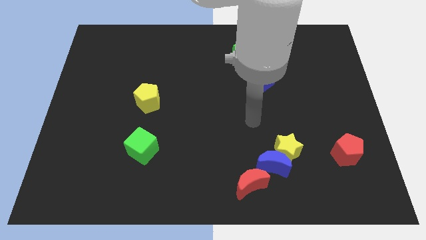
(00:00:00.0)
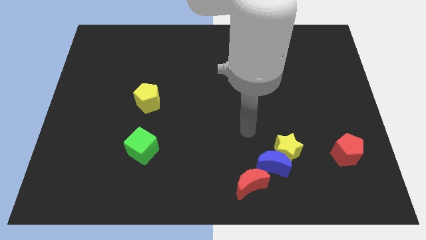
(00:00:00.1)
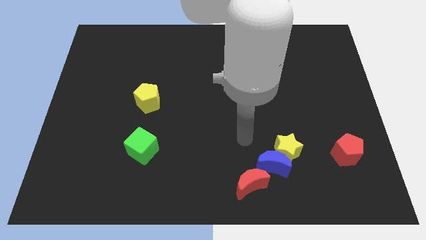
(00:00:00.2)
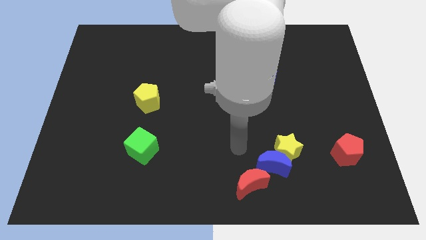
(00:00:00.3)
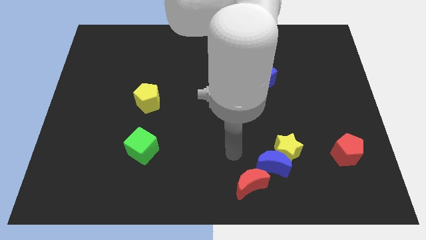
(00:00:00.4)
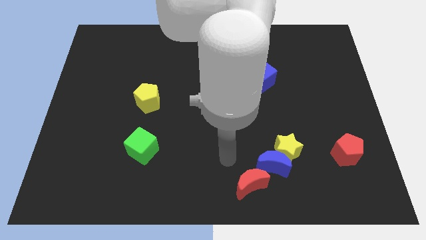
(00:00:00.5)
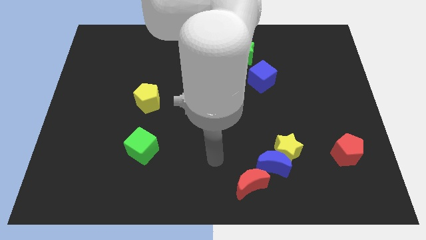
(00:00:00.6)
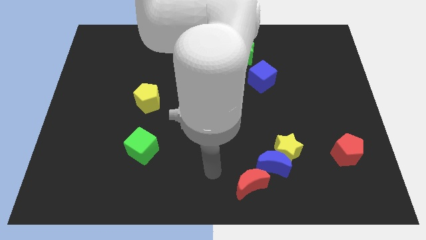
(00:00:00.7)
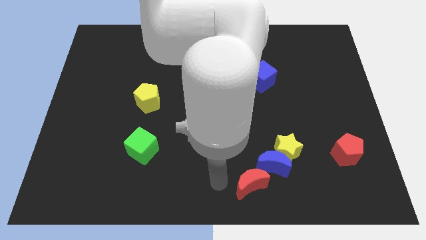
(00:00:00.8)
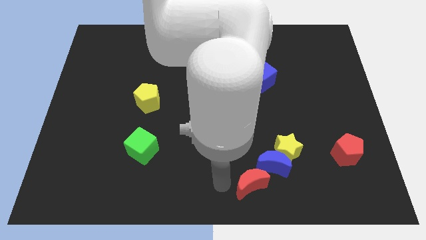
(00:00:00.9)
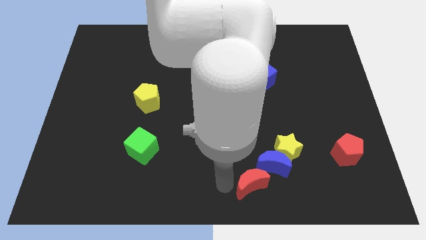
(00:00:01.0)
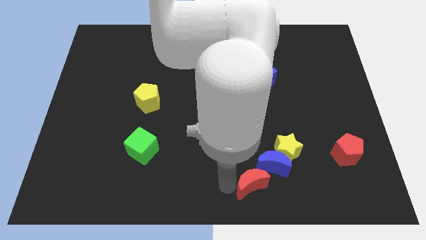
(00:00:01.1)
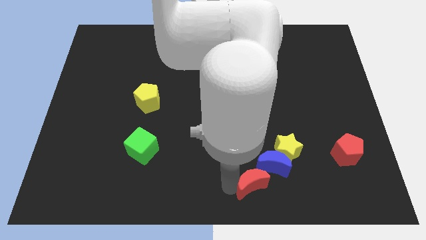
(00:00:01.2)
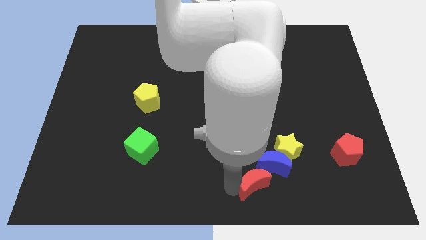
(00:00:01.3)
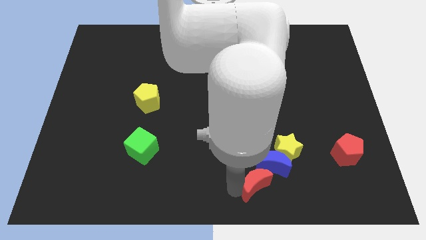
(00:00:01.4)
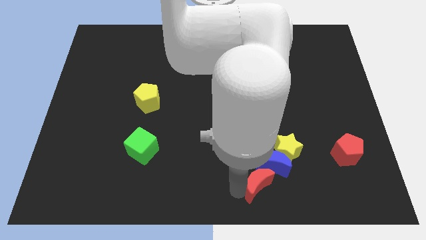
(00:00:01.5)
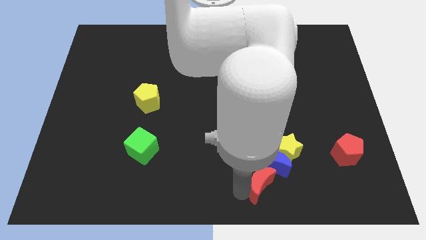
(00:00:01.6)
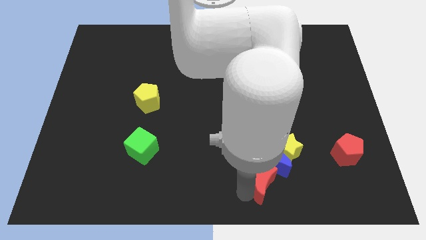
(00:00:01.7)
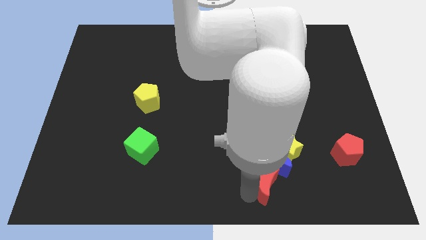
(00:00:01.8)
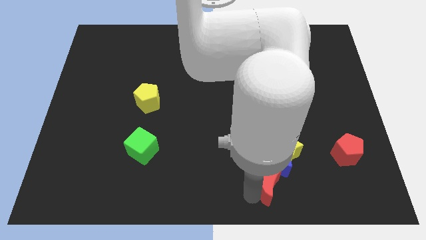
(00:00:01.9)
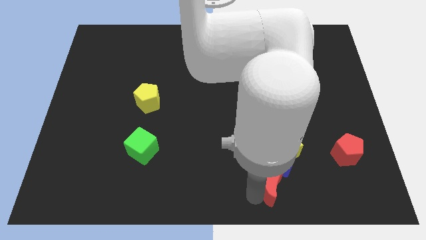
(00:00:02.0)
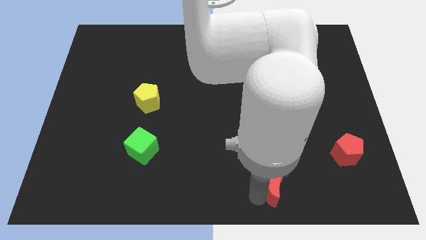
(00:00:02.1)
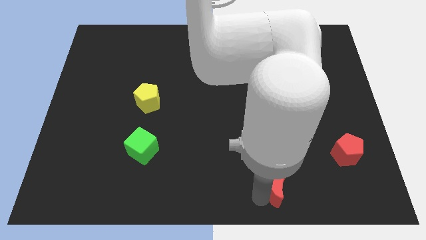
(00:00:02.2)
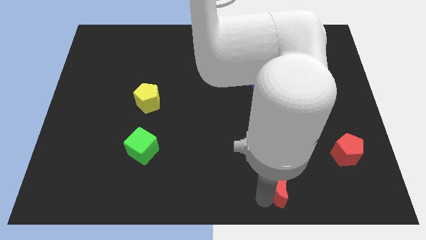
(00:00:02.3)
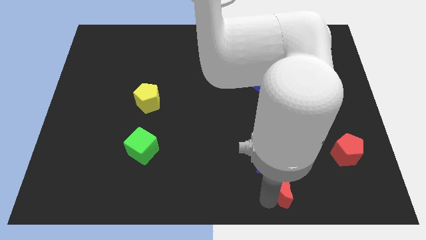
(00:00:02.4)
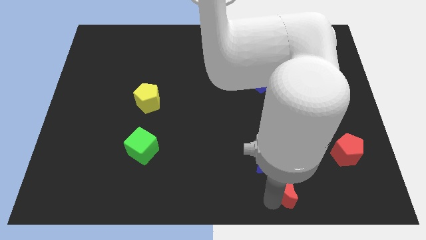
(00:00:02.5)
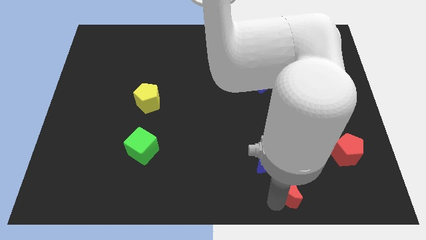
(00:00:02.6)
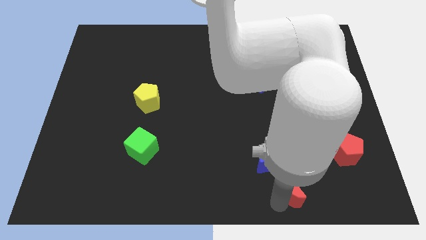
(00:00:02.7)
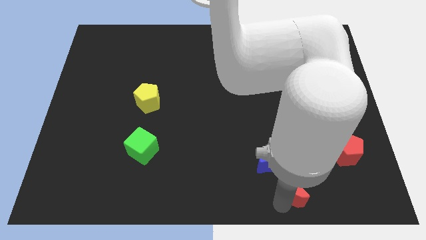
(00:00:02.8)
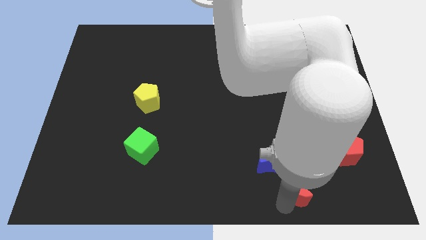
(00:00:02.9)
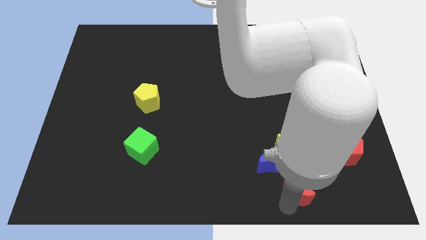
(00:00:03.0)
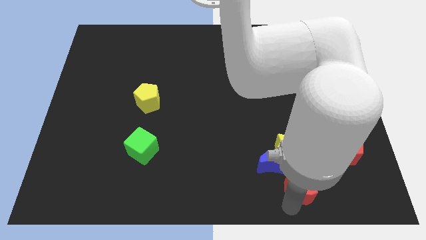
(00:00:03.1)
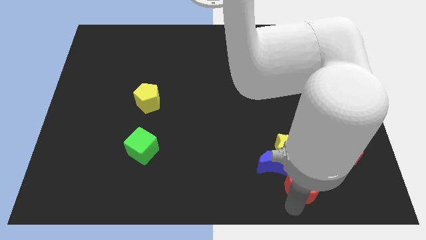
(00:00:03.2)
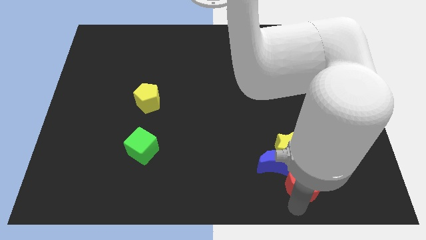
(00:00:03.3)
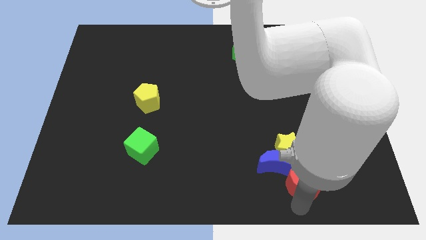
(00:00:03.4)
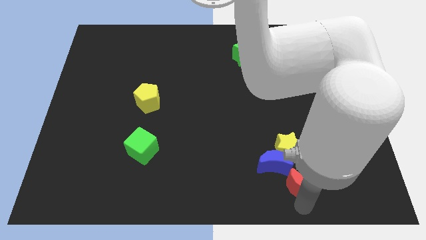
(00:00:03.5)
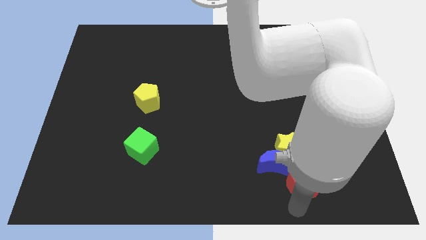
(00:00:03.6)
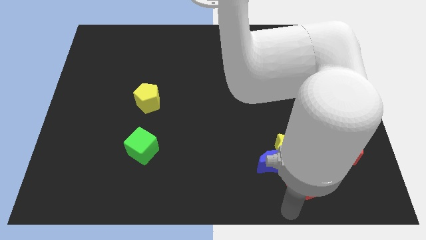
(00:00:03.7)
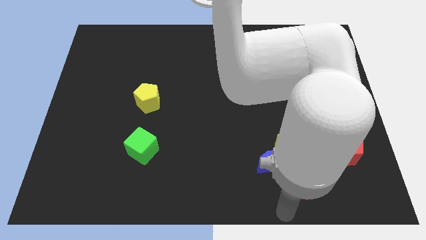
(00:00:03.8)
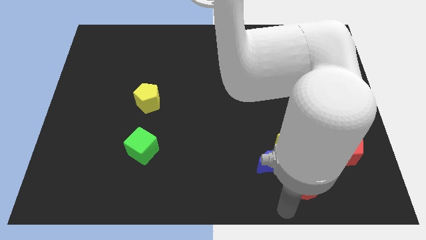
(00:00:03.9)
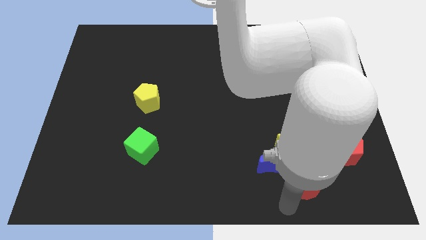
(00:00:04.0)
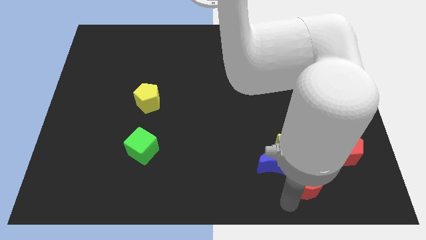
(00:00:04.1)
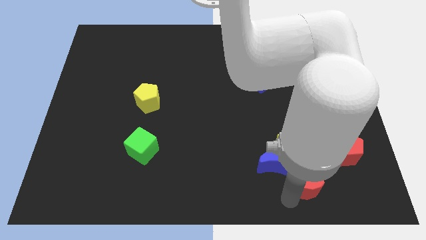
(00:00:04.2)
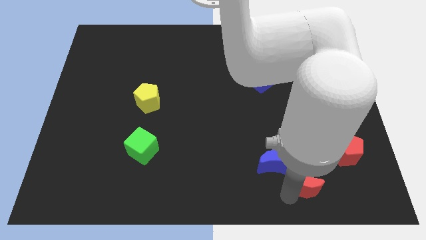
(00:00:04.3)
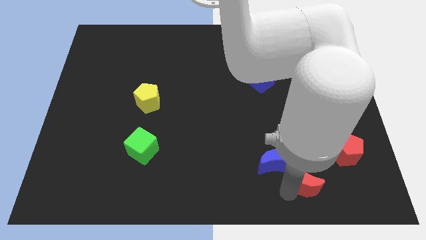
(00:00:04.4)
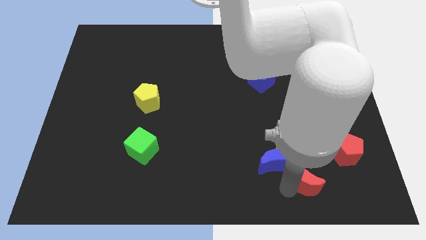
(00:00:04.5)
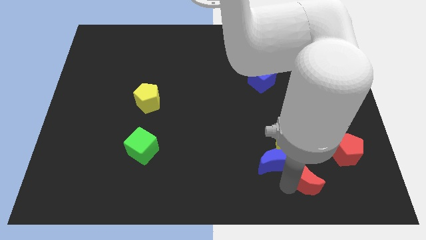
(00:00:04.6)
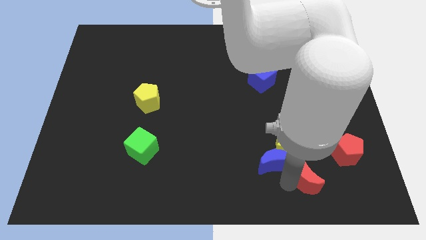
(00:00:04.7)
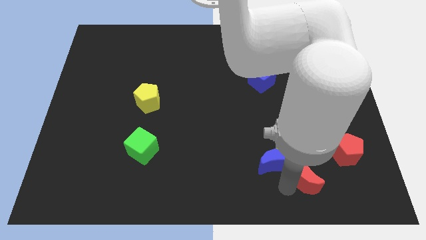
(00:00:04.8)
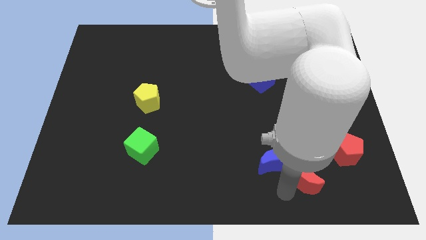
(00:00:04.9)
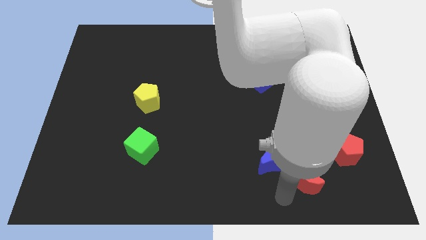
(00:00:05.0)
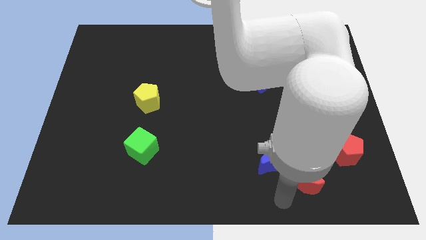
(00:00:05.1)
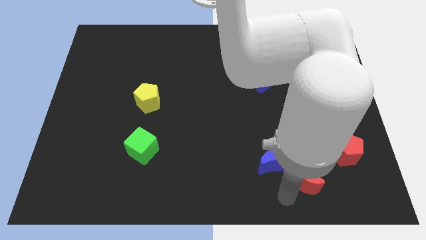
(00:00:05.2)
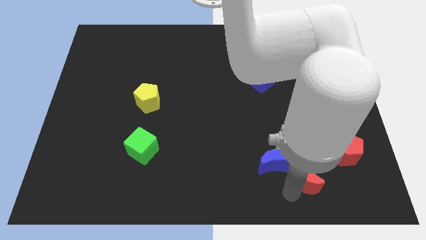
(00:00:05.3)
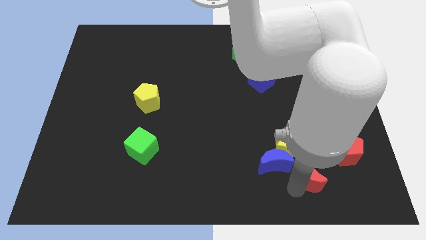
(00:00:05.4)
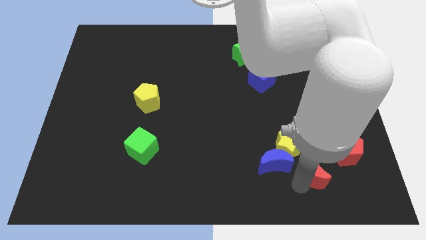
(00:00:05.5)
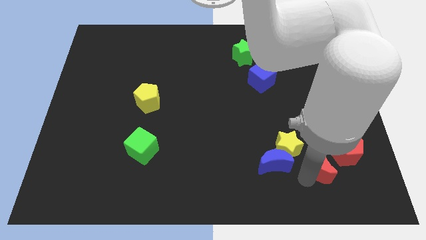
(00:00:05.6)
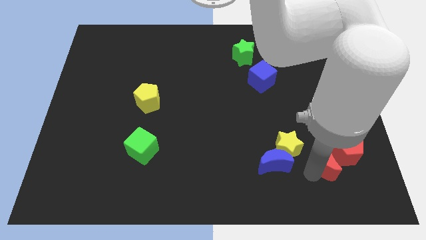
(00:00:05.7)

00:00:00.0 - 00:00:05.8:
push the red moon close to the red pentagon
